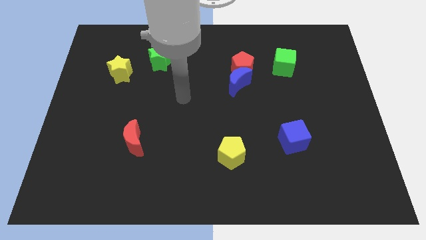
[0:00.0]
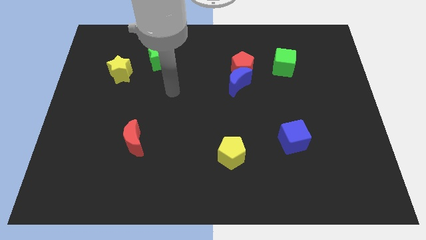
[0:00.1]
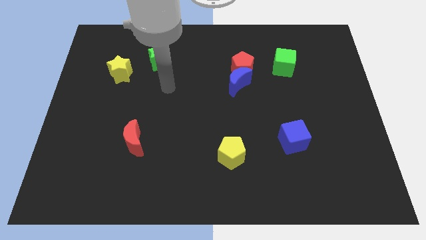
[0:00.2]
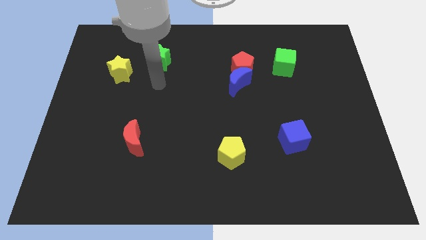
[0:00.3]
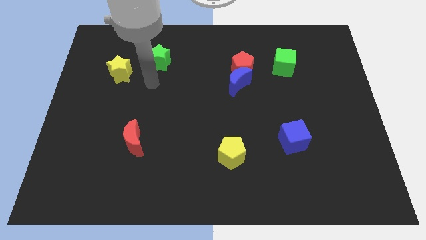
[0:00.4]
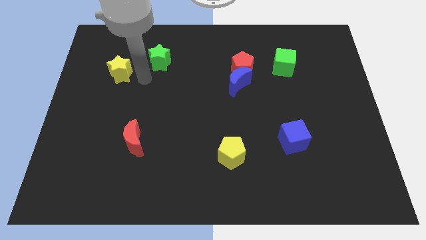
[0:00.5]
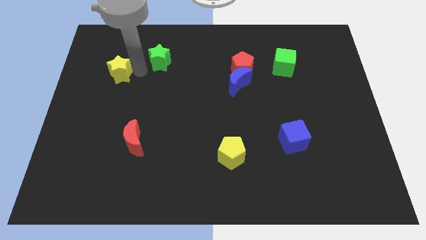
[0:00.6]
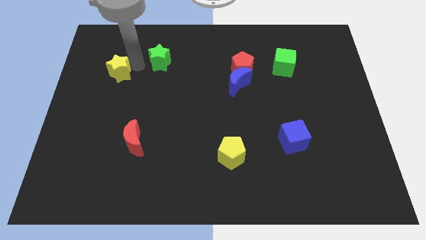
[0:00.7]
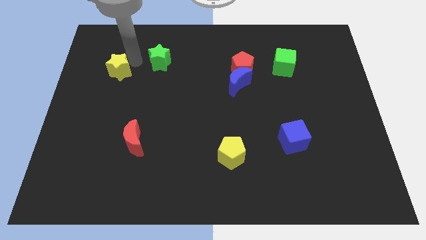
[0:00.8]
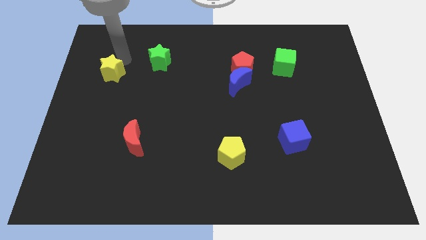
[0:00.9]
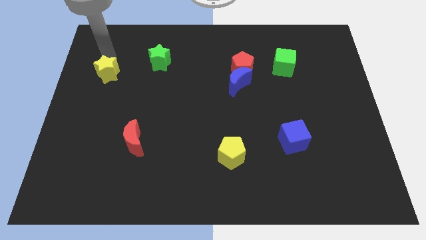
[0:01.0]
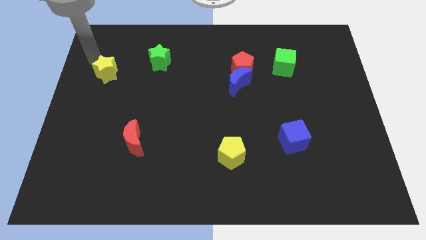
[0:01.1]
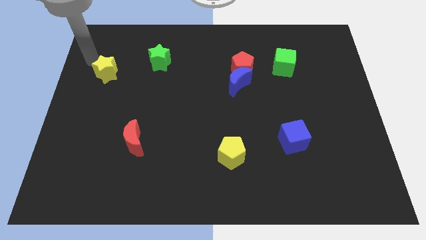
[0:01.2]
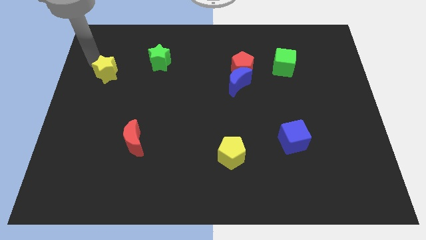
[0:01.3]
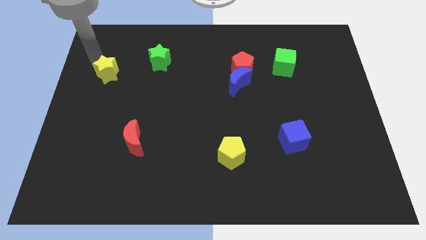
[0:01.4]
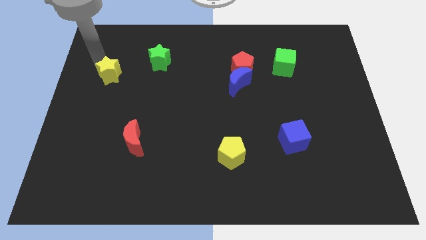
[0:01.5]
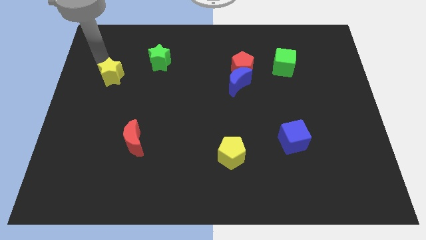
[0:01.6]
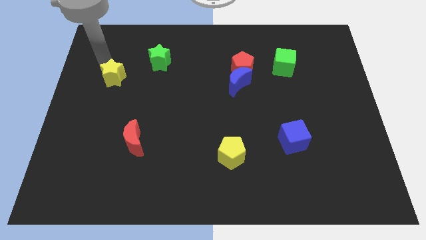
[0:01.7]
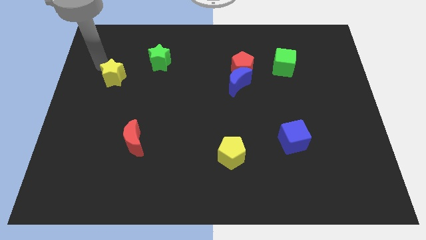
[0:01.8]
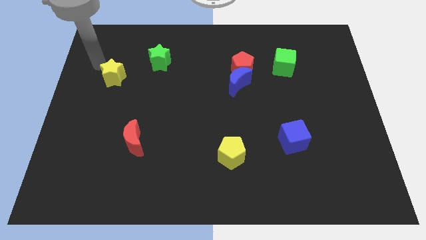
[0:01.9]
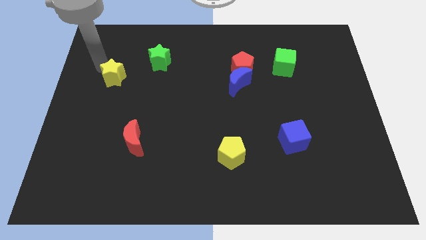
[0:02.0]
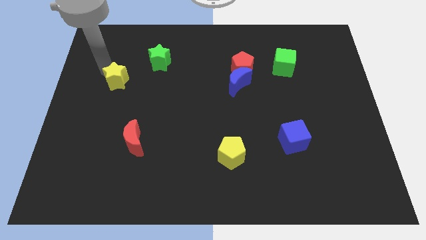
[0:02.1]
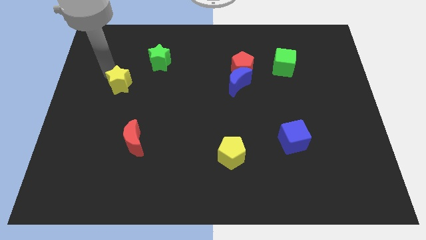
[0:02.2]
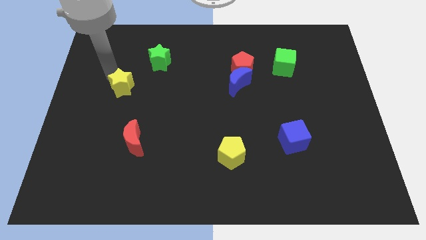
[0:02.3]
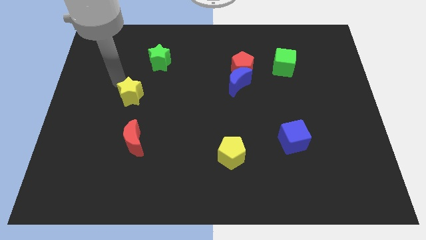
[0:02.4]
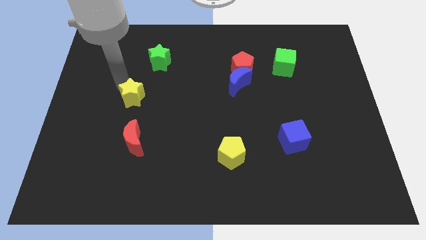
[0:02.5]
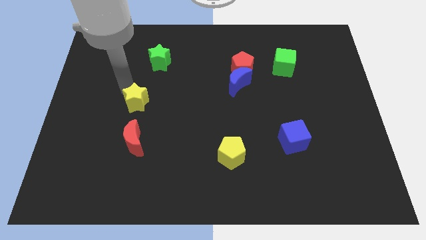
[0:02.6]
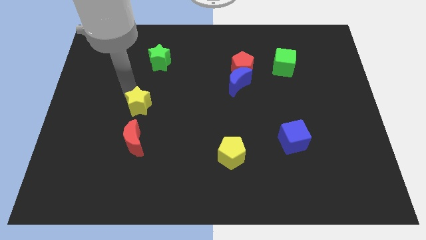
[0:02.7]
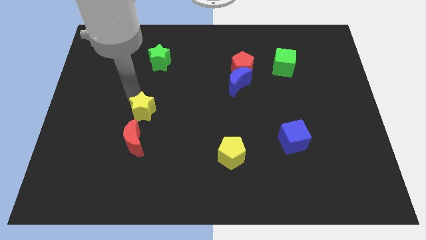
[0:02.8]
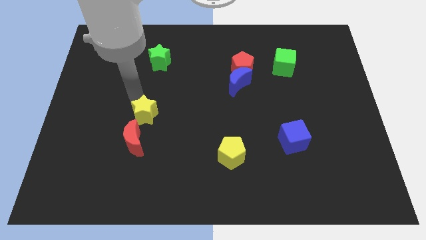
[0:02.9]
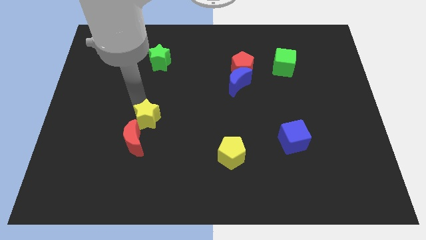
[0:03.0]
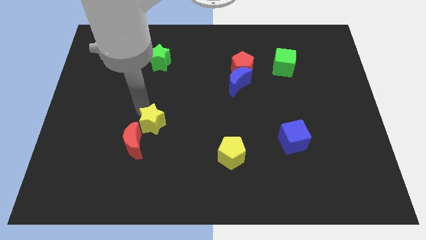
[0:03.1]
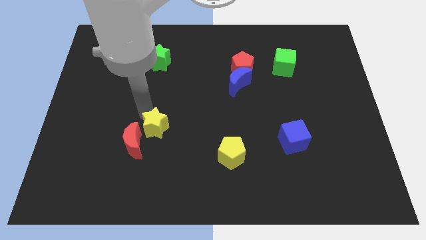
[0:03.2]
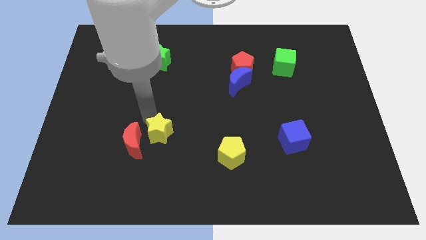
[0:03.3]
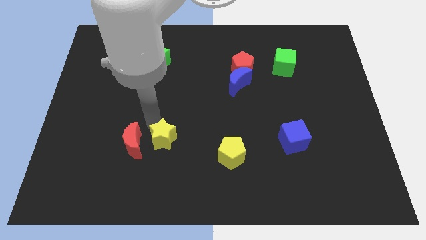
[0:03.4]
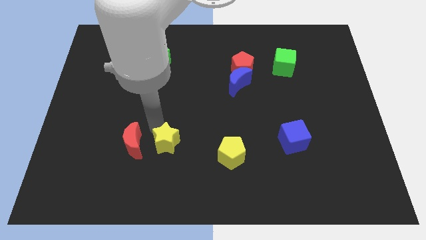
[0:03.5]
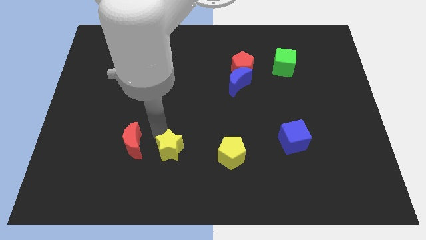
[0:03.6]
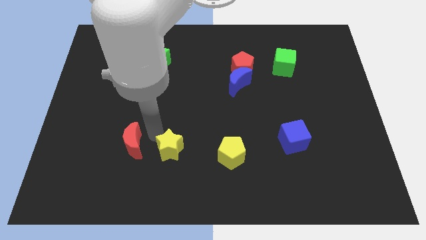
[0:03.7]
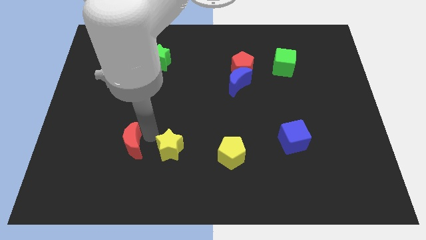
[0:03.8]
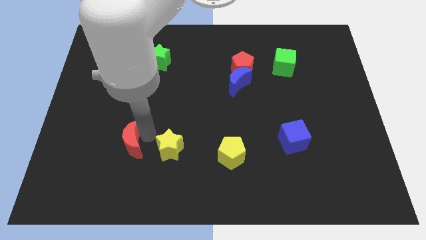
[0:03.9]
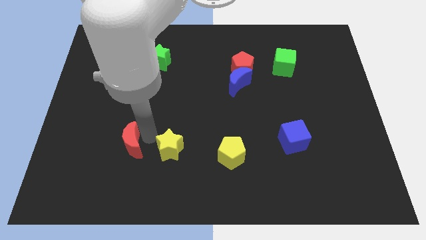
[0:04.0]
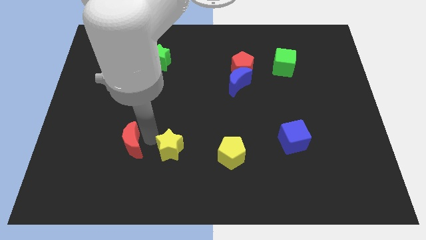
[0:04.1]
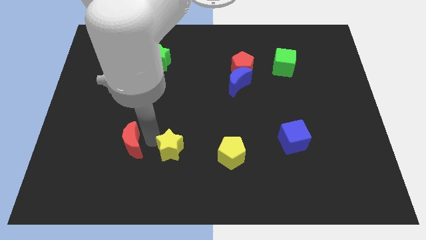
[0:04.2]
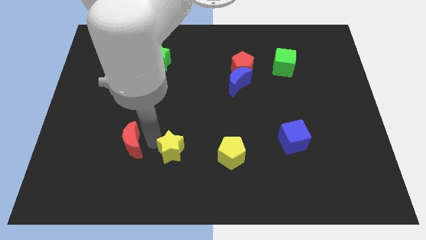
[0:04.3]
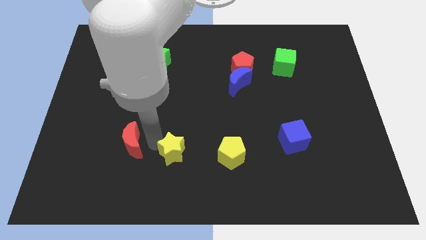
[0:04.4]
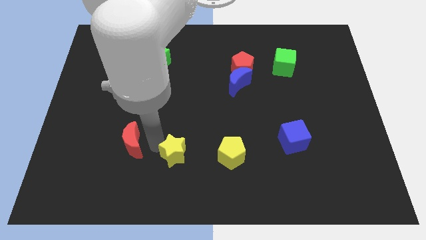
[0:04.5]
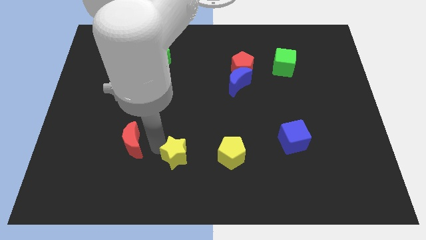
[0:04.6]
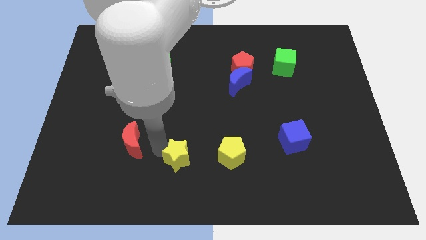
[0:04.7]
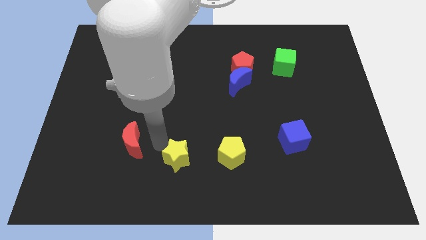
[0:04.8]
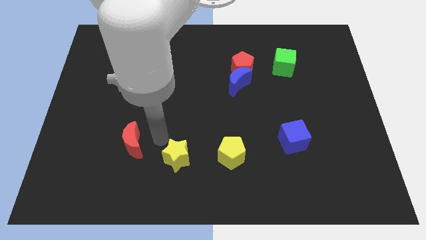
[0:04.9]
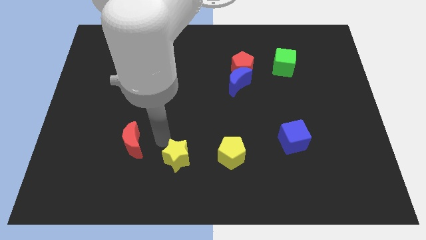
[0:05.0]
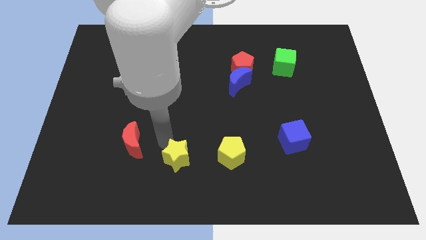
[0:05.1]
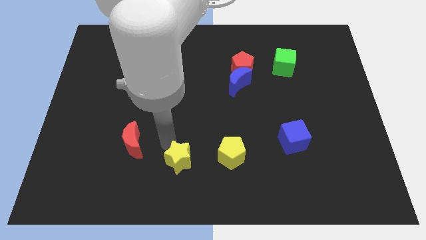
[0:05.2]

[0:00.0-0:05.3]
slide the yellow star to the bottom side

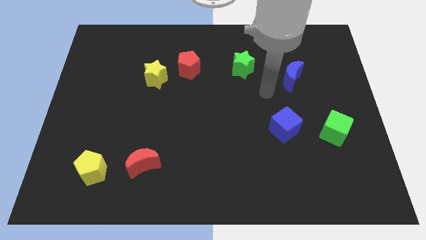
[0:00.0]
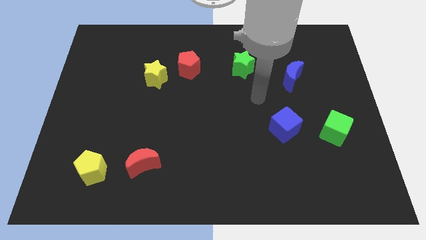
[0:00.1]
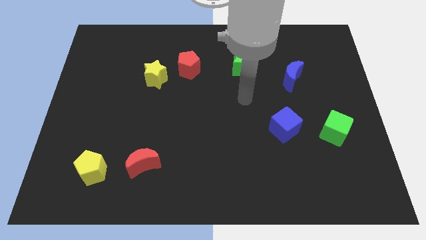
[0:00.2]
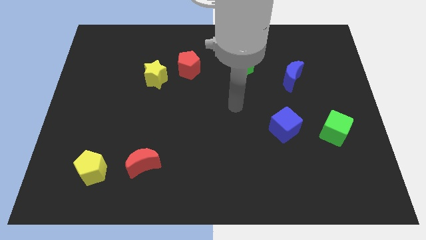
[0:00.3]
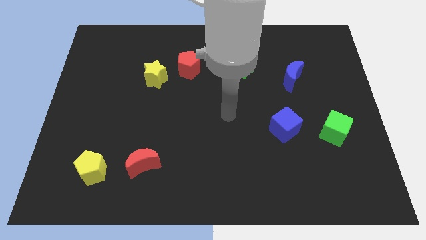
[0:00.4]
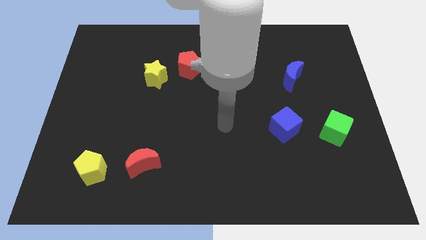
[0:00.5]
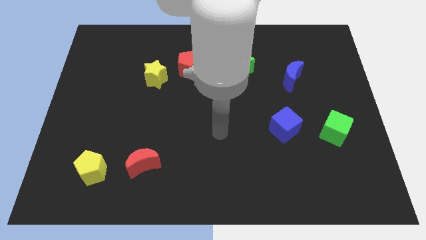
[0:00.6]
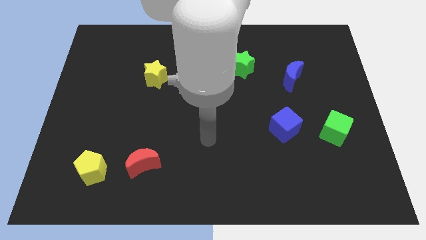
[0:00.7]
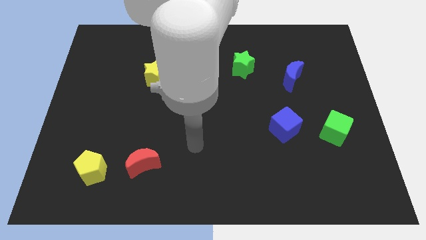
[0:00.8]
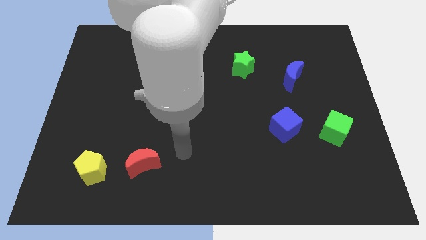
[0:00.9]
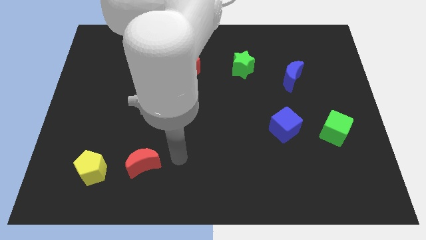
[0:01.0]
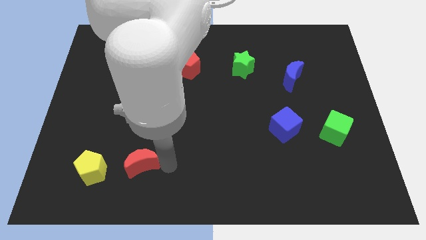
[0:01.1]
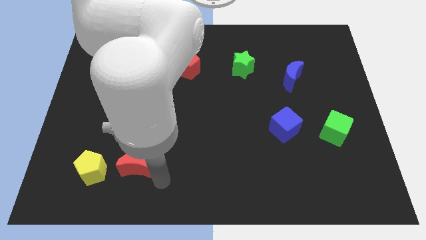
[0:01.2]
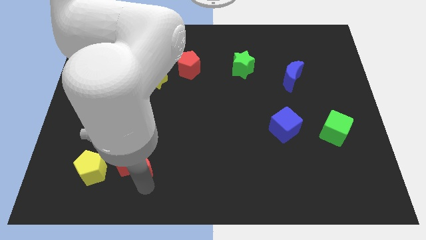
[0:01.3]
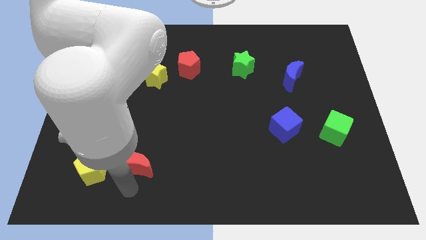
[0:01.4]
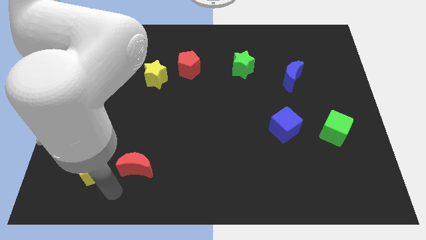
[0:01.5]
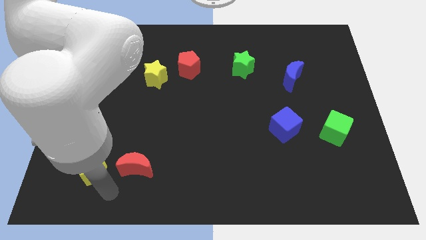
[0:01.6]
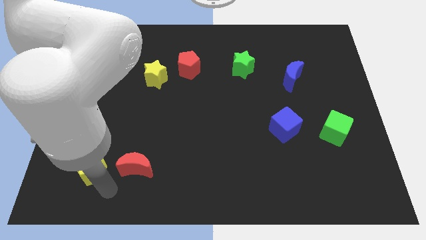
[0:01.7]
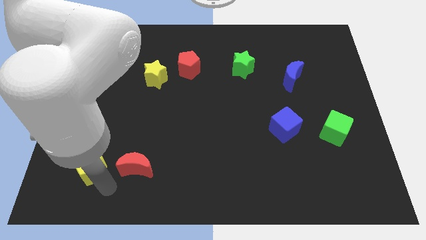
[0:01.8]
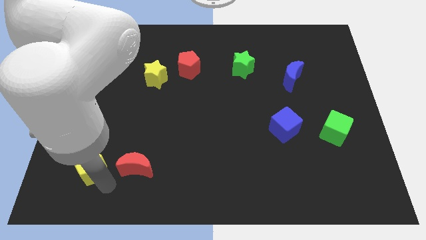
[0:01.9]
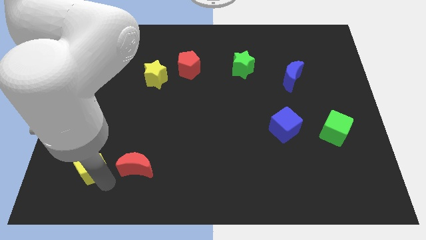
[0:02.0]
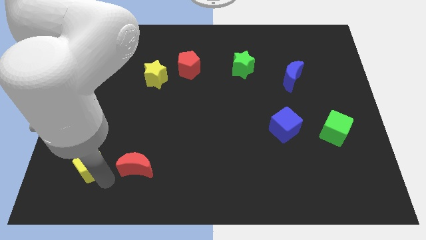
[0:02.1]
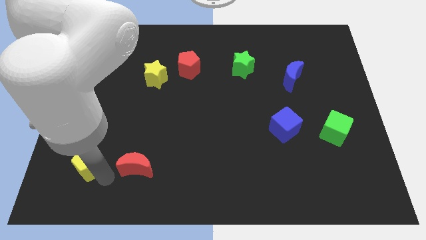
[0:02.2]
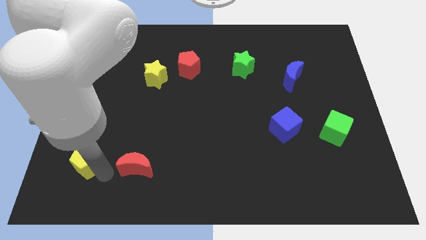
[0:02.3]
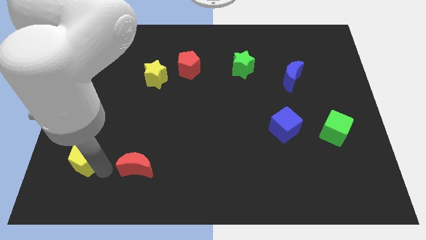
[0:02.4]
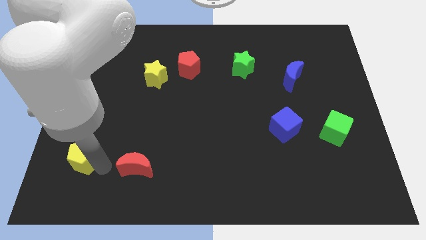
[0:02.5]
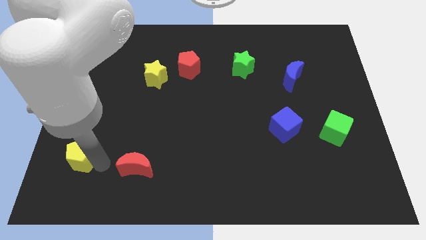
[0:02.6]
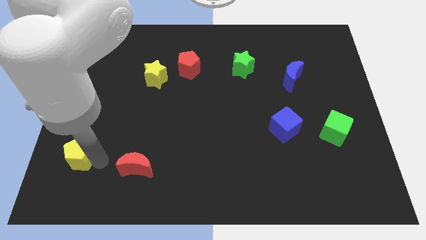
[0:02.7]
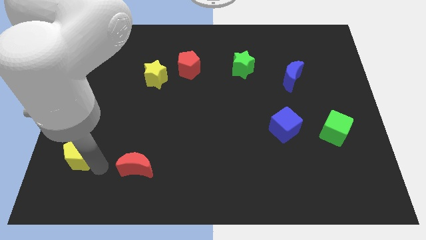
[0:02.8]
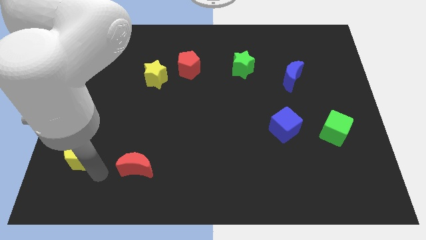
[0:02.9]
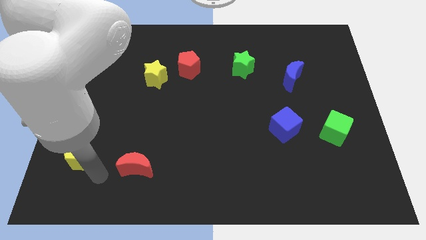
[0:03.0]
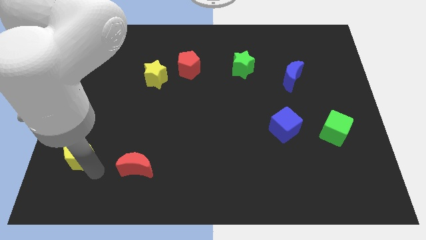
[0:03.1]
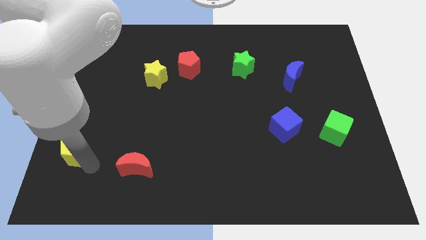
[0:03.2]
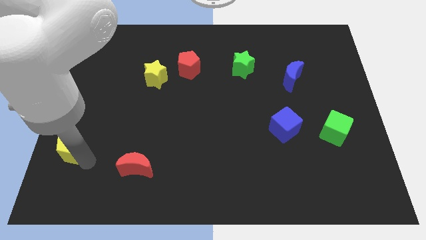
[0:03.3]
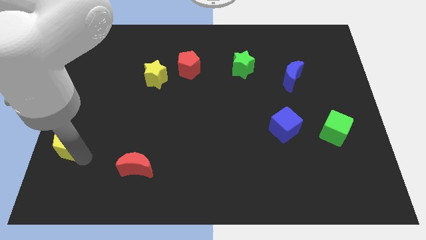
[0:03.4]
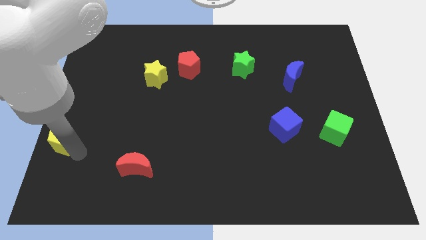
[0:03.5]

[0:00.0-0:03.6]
push the yellow pentagon to the center left
